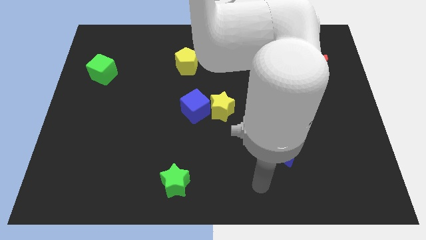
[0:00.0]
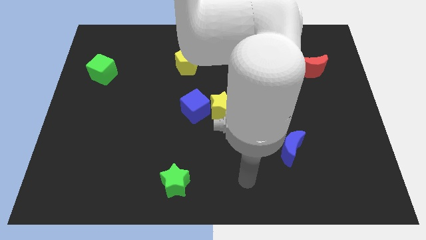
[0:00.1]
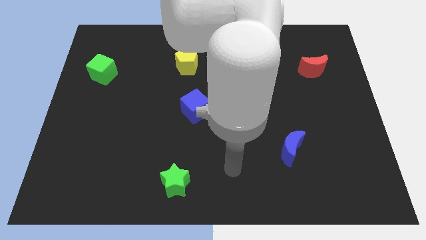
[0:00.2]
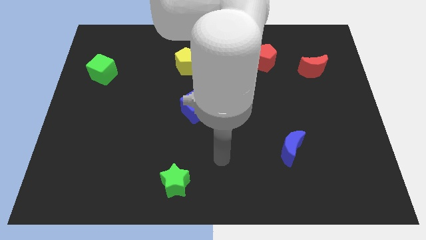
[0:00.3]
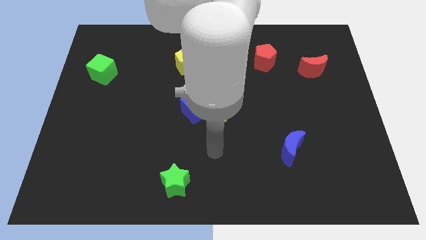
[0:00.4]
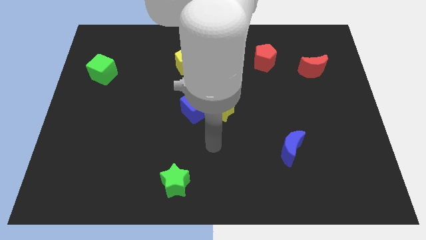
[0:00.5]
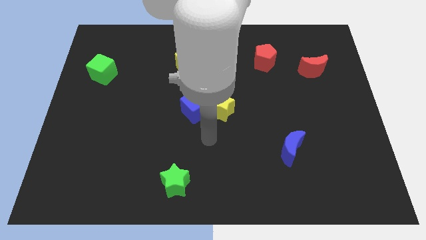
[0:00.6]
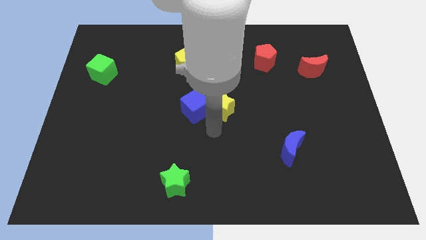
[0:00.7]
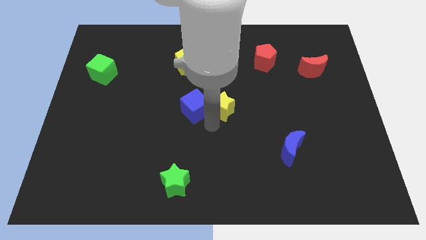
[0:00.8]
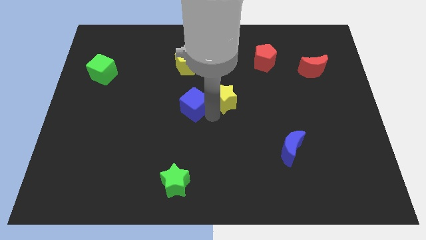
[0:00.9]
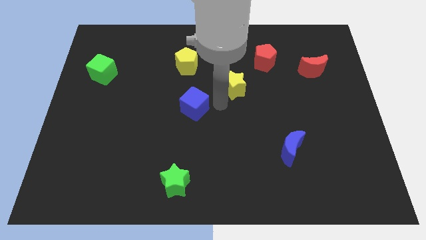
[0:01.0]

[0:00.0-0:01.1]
pull the blue cube apart from the yellow star

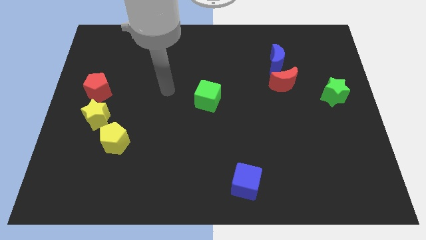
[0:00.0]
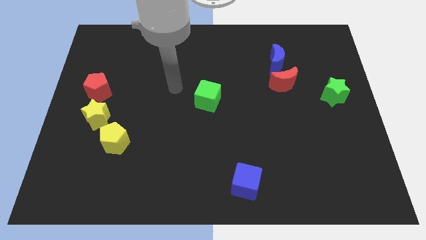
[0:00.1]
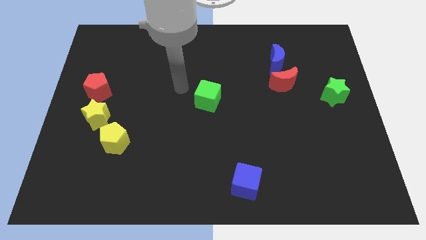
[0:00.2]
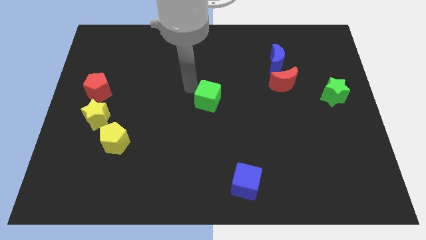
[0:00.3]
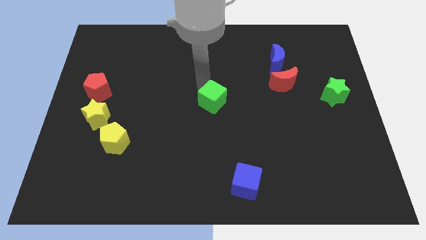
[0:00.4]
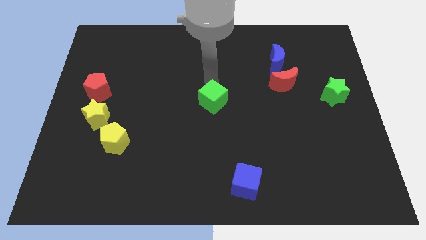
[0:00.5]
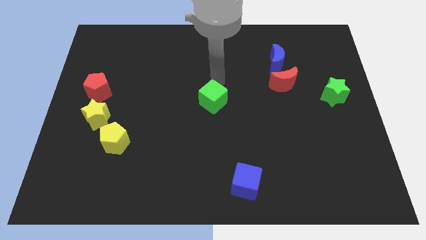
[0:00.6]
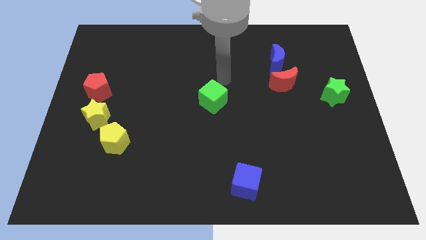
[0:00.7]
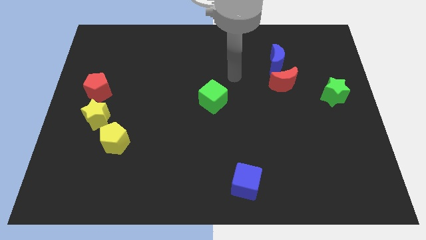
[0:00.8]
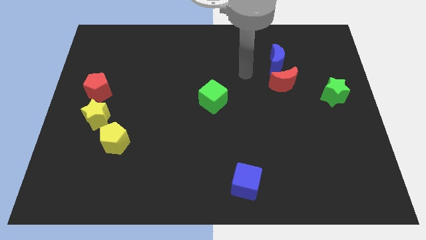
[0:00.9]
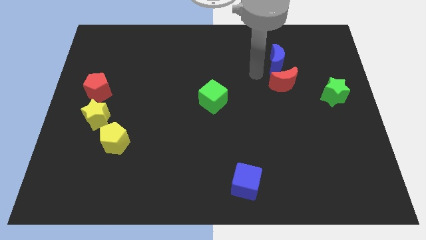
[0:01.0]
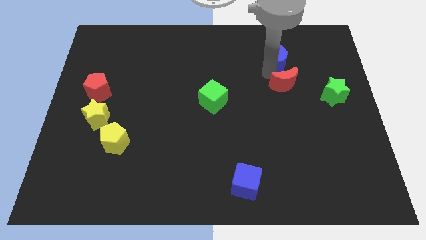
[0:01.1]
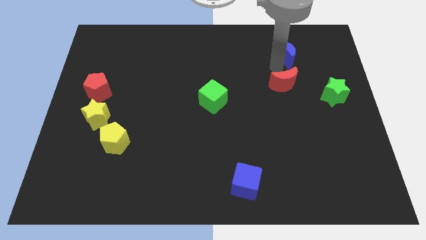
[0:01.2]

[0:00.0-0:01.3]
pull the red moon apart from the blue moon

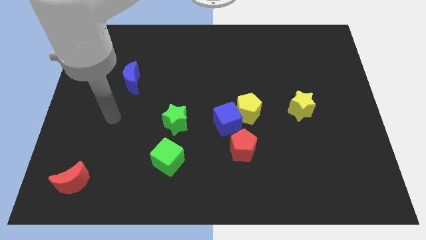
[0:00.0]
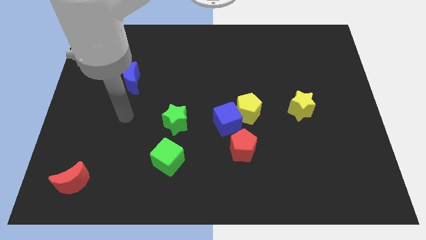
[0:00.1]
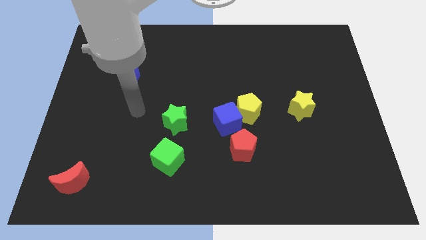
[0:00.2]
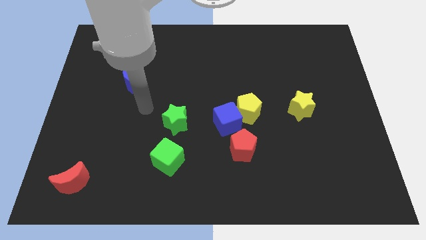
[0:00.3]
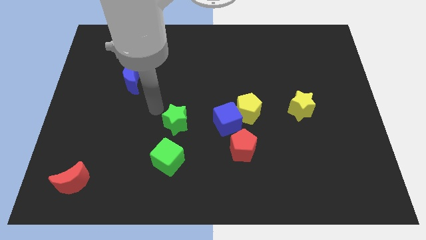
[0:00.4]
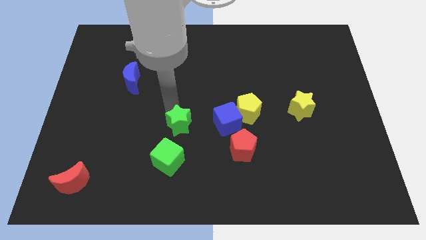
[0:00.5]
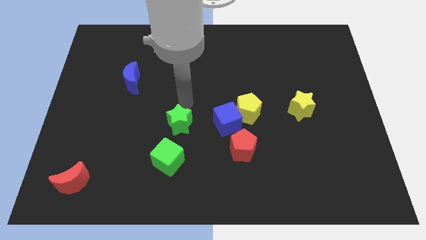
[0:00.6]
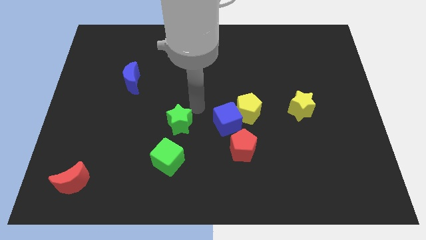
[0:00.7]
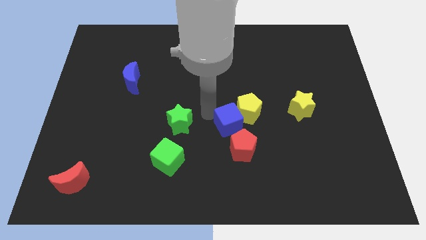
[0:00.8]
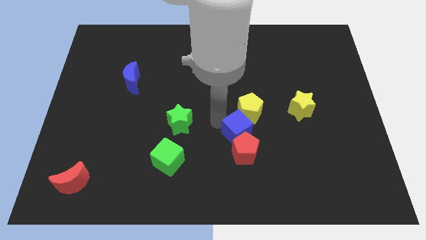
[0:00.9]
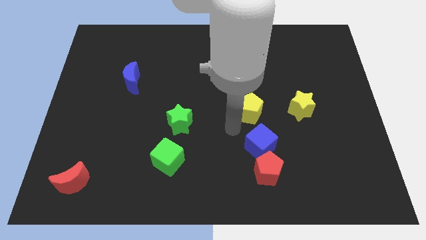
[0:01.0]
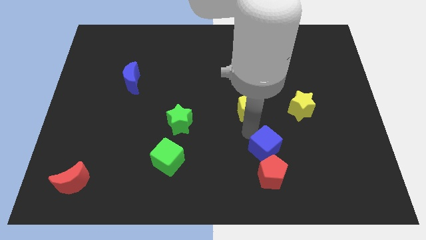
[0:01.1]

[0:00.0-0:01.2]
pull the yellow pentagon apart from the blue cube

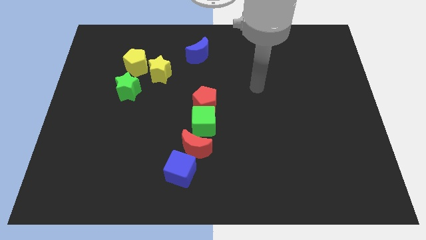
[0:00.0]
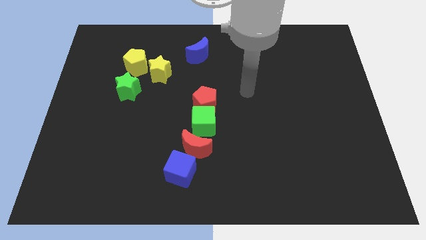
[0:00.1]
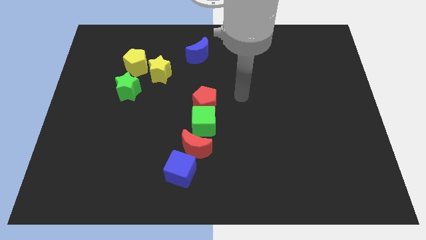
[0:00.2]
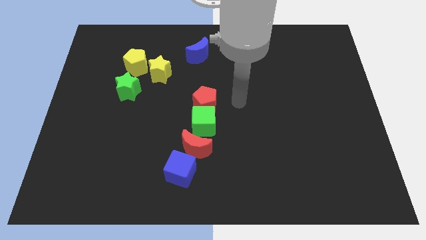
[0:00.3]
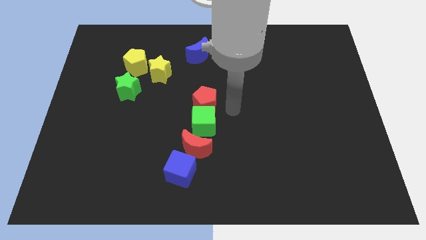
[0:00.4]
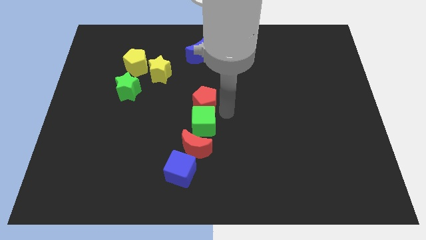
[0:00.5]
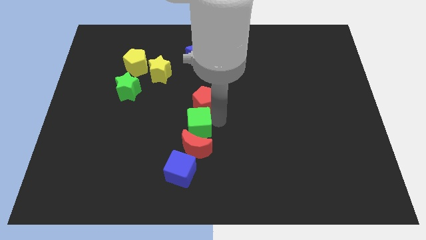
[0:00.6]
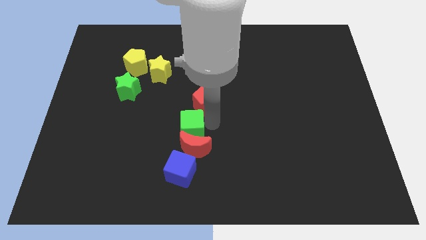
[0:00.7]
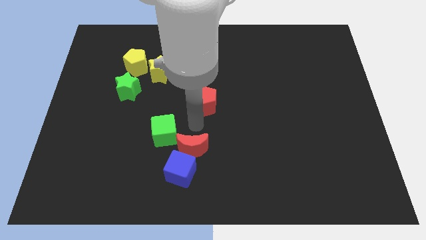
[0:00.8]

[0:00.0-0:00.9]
separate the red pentagon from the green cube

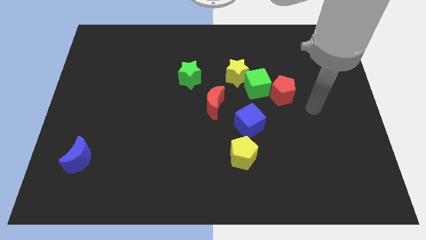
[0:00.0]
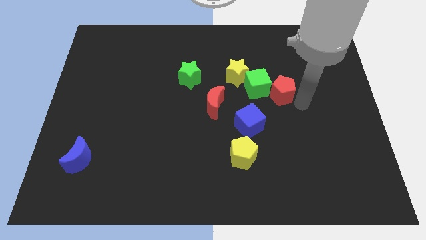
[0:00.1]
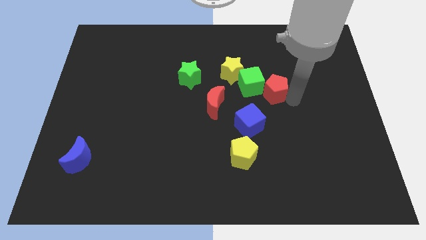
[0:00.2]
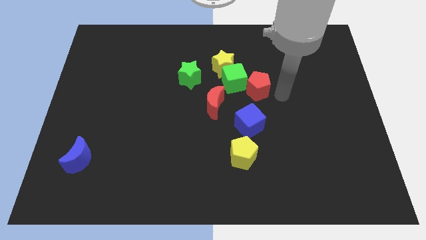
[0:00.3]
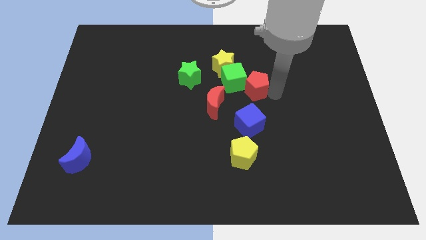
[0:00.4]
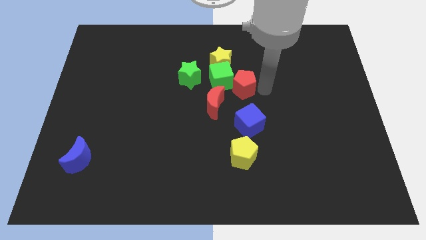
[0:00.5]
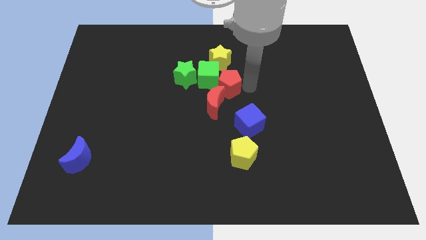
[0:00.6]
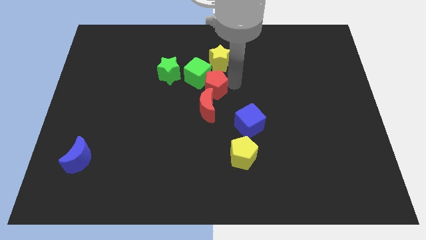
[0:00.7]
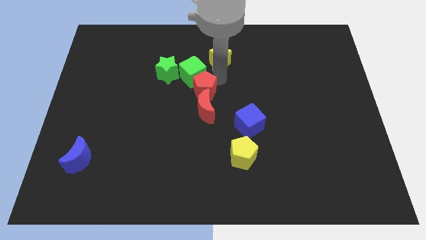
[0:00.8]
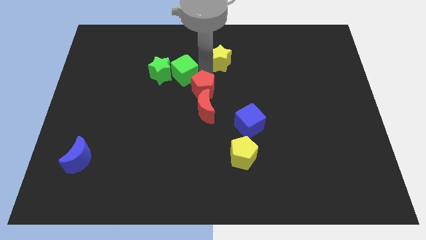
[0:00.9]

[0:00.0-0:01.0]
separate the yellow star from the green cube

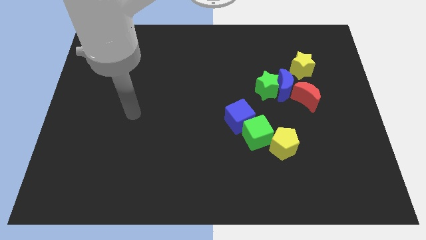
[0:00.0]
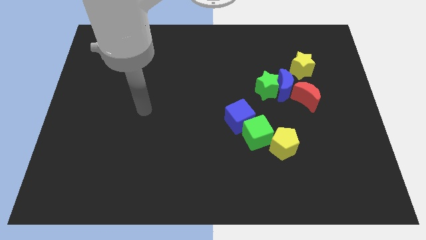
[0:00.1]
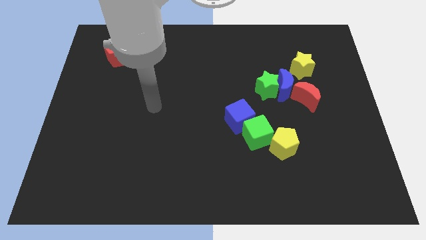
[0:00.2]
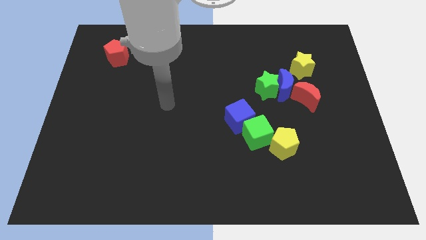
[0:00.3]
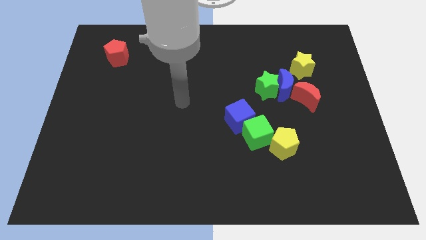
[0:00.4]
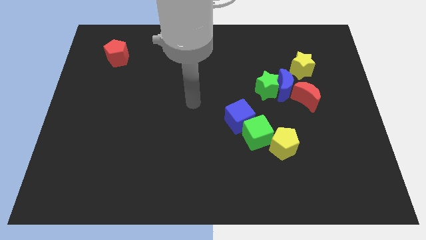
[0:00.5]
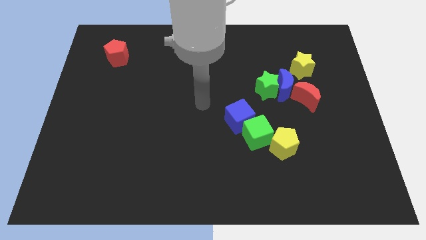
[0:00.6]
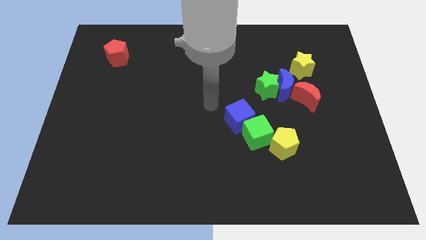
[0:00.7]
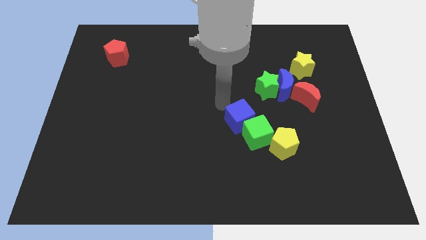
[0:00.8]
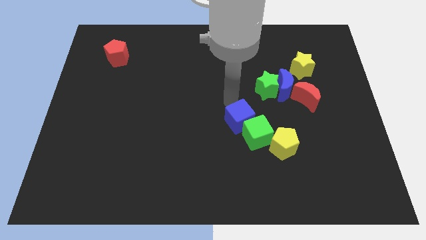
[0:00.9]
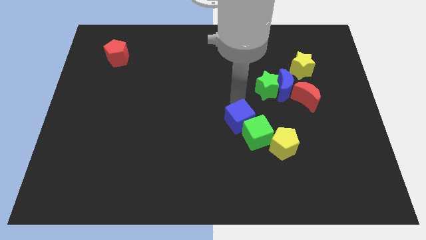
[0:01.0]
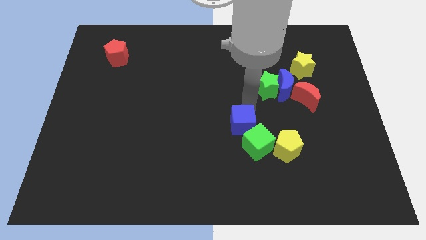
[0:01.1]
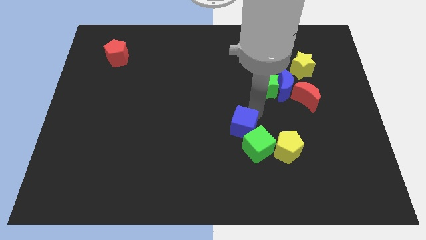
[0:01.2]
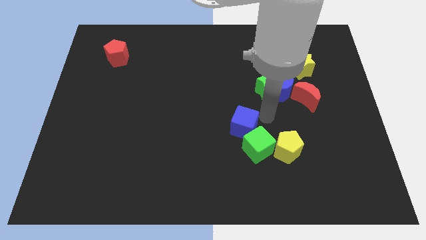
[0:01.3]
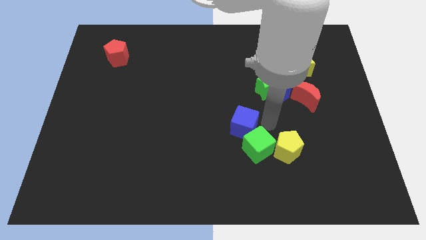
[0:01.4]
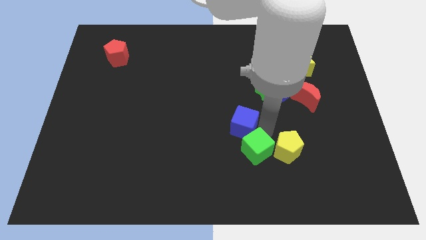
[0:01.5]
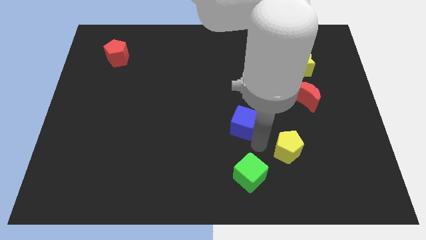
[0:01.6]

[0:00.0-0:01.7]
move the blue cube away from the green cube

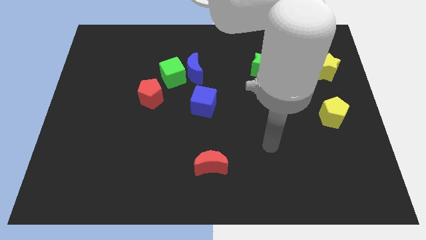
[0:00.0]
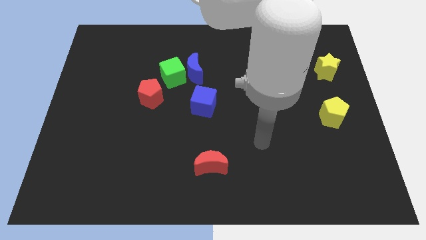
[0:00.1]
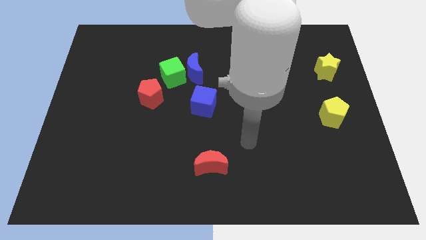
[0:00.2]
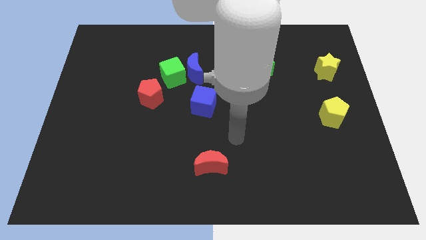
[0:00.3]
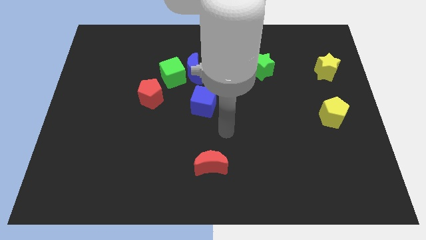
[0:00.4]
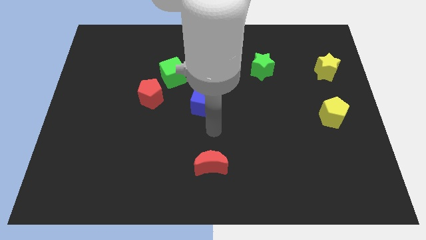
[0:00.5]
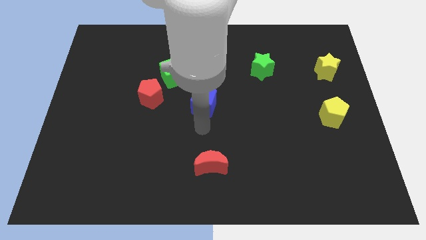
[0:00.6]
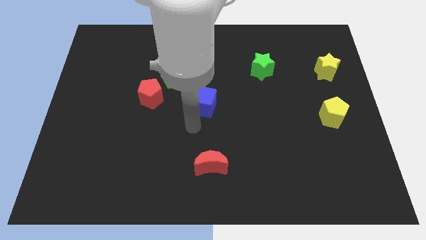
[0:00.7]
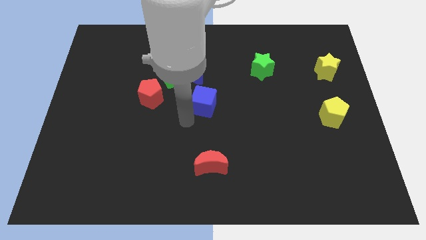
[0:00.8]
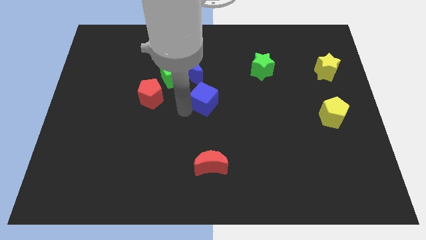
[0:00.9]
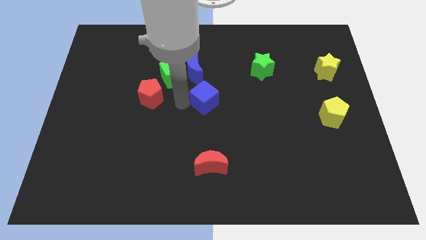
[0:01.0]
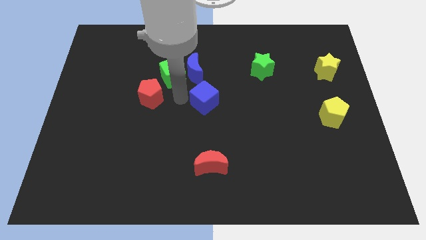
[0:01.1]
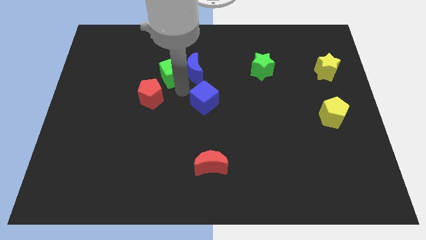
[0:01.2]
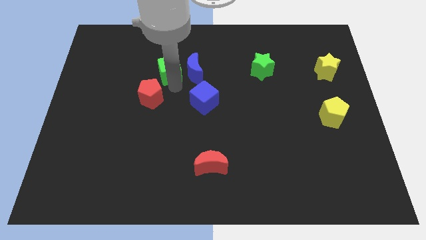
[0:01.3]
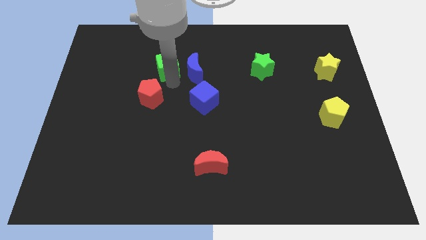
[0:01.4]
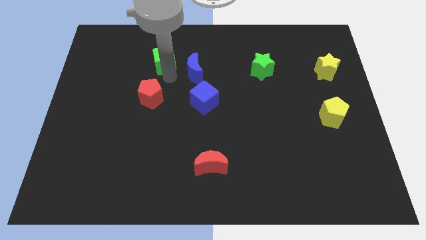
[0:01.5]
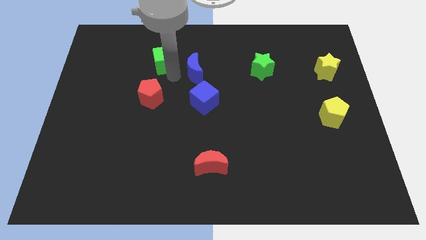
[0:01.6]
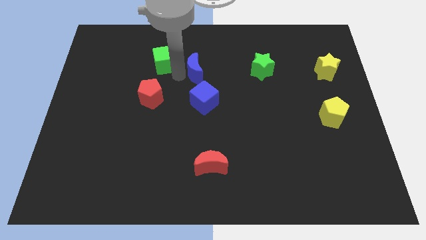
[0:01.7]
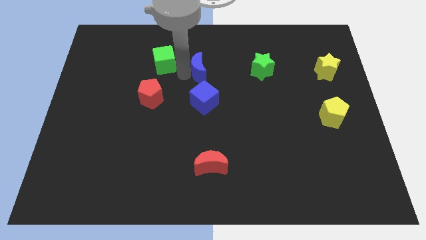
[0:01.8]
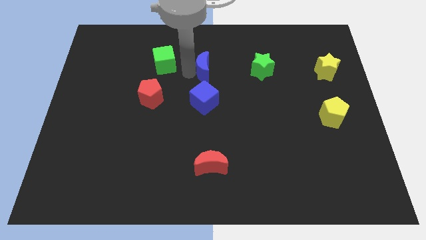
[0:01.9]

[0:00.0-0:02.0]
separate the blue moon from the green cube

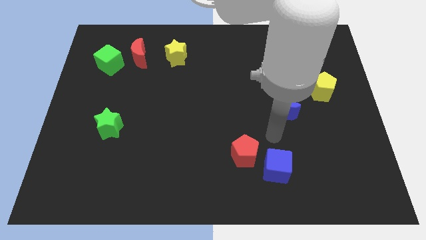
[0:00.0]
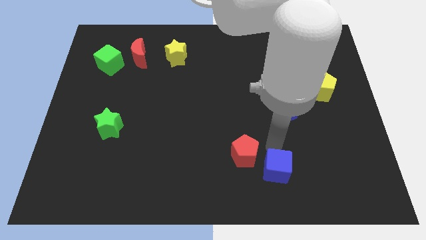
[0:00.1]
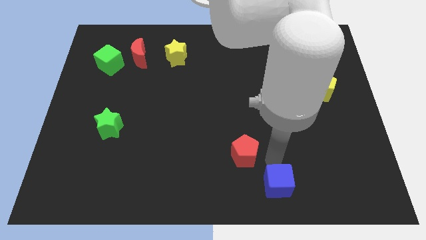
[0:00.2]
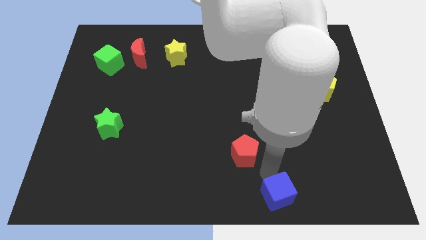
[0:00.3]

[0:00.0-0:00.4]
separate the red pentagon from the blue cube
